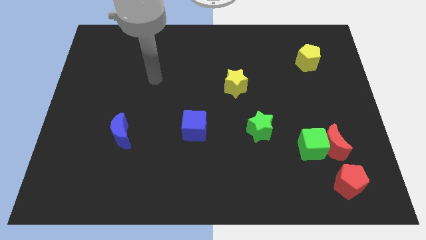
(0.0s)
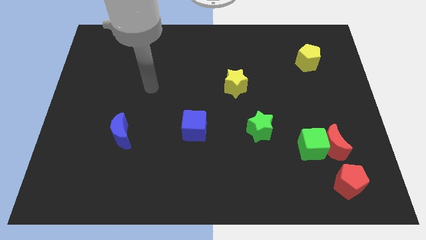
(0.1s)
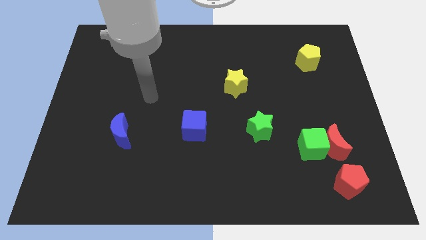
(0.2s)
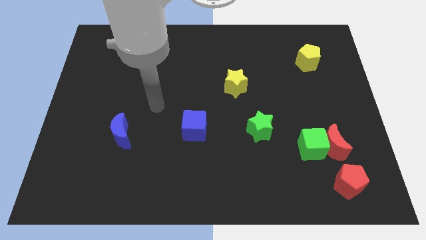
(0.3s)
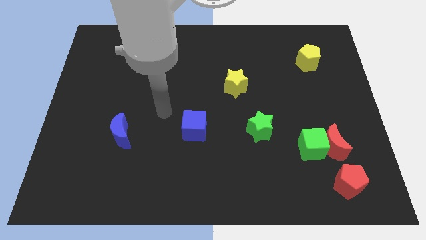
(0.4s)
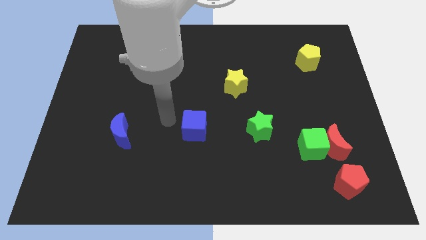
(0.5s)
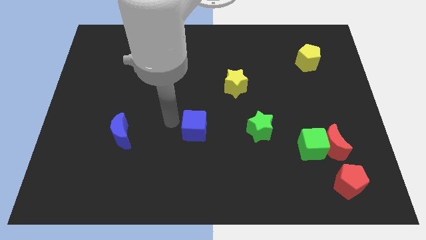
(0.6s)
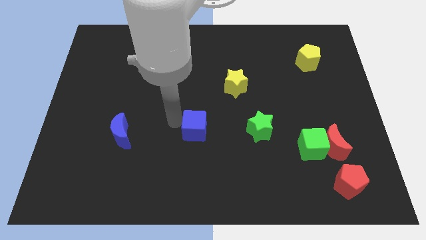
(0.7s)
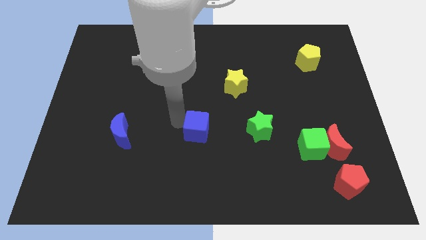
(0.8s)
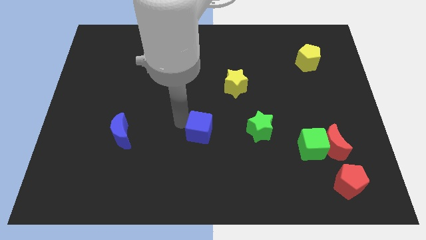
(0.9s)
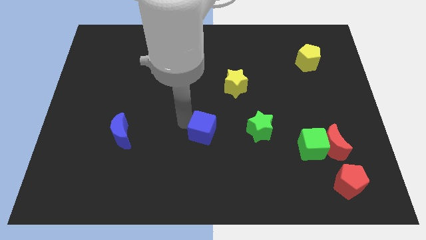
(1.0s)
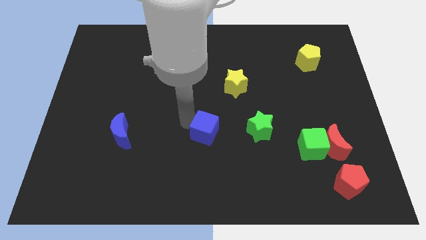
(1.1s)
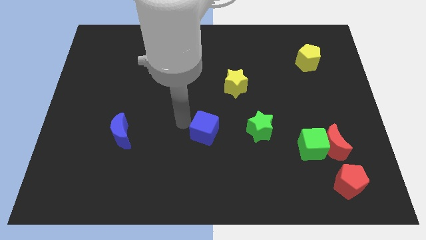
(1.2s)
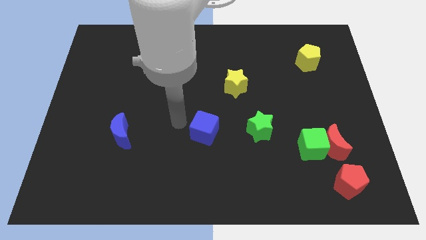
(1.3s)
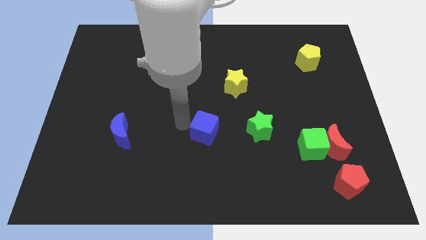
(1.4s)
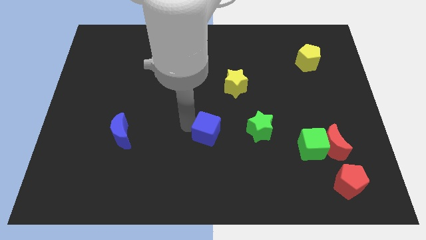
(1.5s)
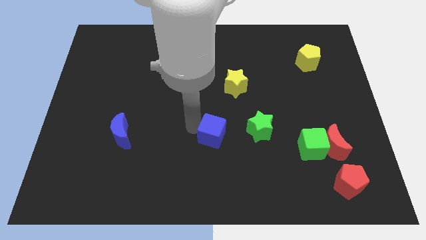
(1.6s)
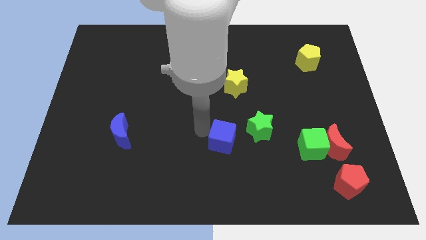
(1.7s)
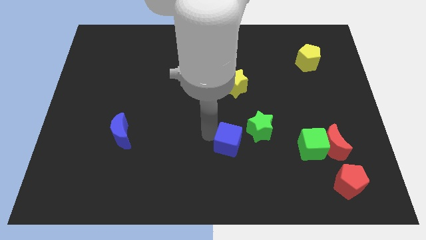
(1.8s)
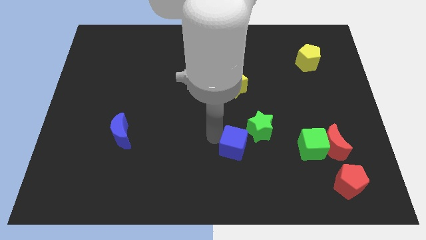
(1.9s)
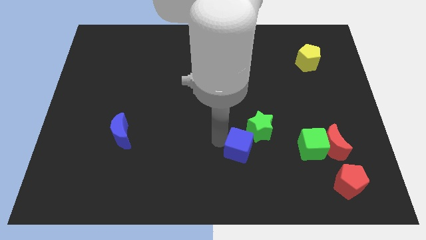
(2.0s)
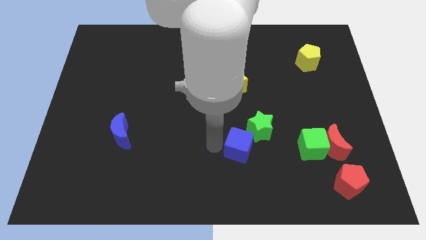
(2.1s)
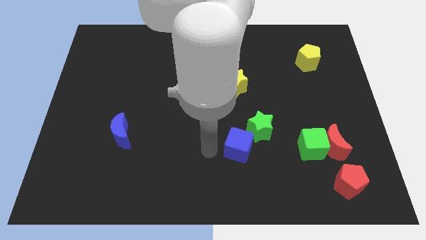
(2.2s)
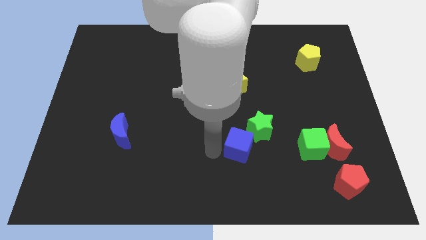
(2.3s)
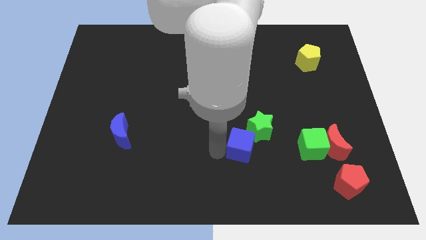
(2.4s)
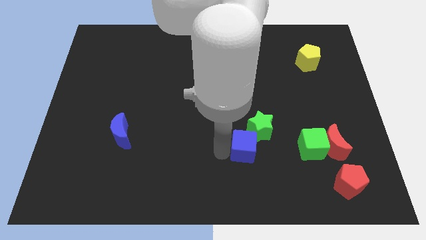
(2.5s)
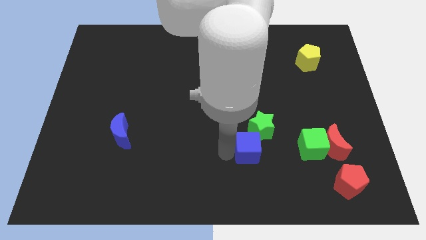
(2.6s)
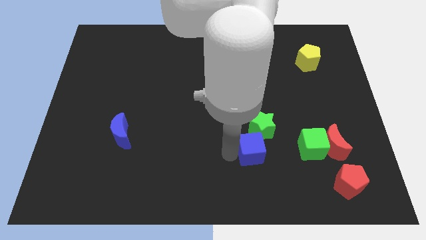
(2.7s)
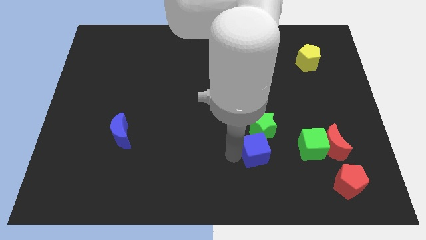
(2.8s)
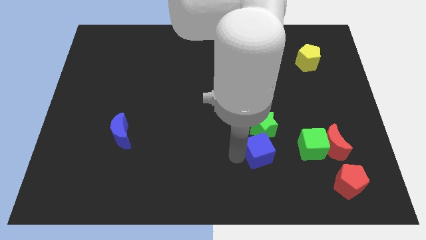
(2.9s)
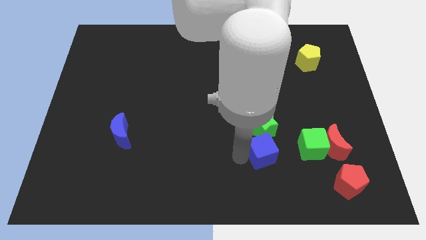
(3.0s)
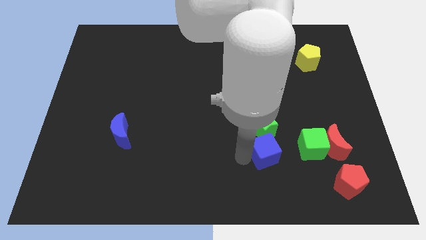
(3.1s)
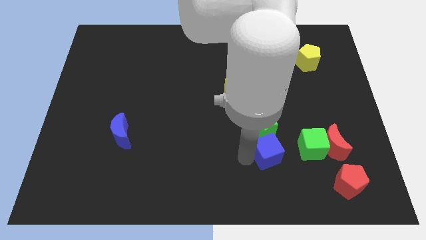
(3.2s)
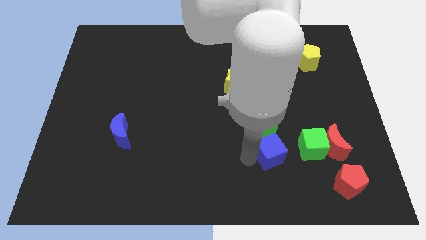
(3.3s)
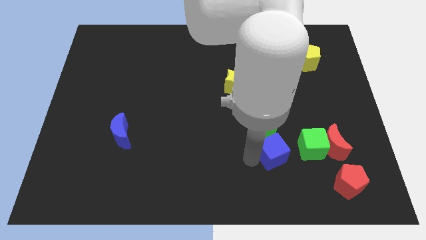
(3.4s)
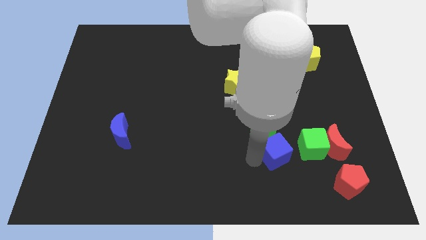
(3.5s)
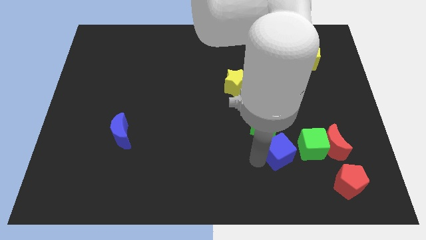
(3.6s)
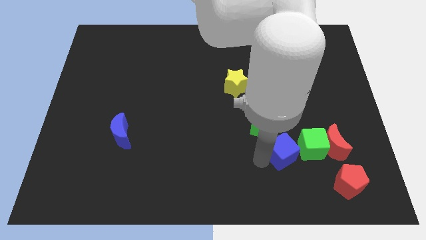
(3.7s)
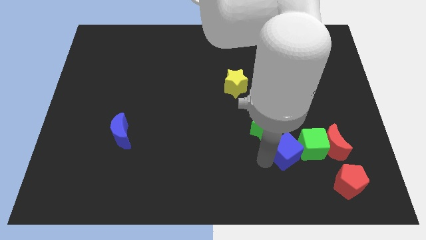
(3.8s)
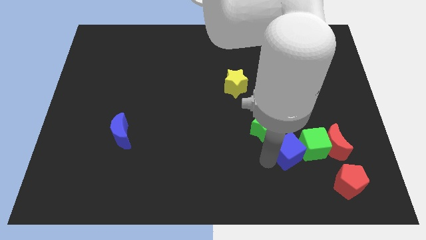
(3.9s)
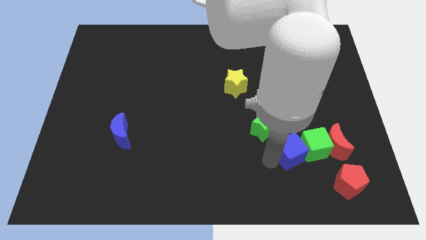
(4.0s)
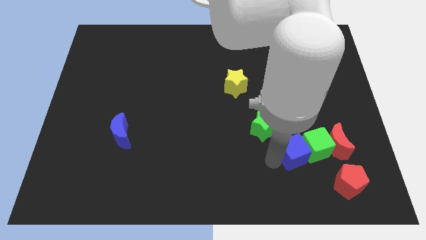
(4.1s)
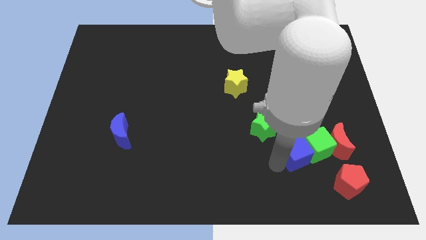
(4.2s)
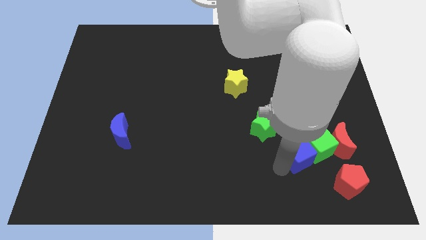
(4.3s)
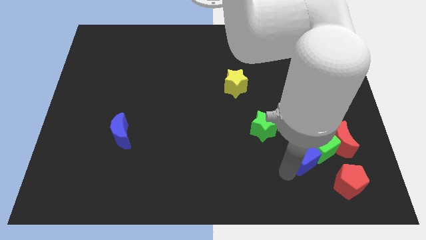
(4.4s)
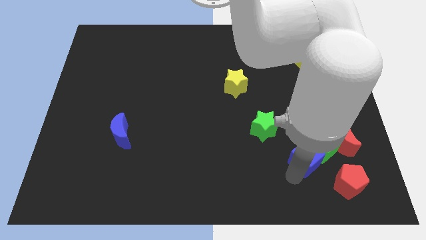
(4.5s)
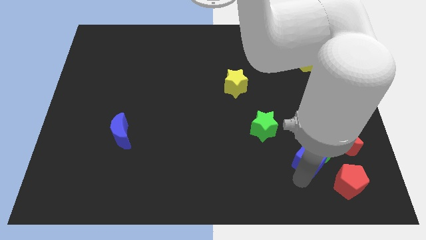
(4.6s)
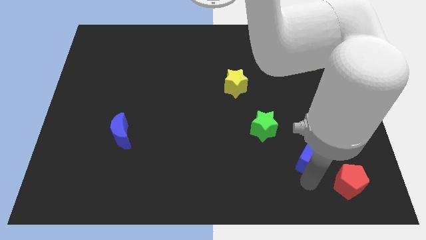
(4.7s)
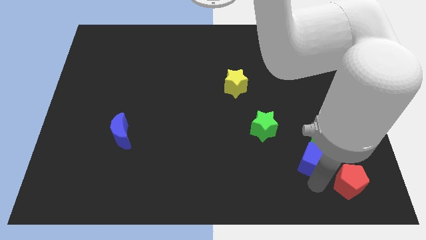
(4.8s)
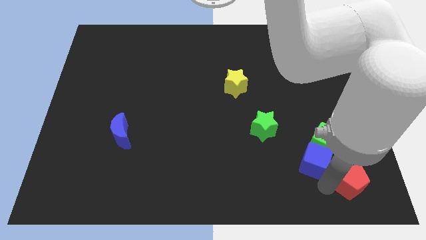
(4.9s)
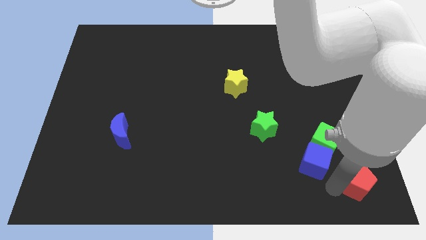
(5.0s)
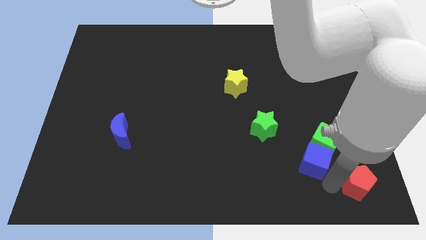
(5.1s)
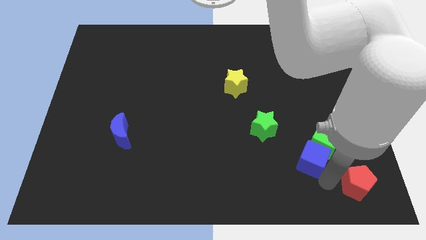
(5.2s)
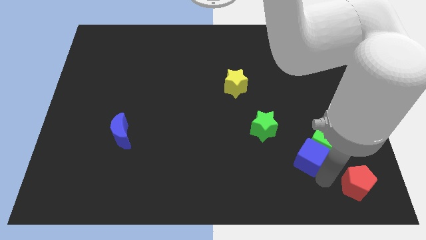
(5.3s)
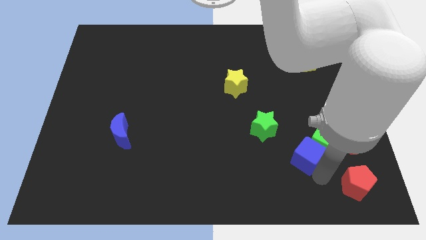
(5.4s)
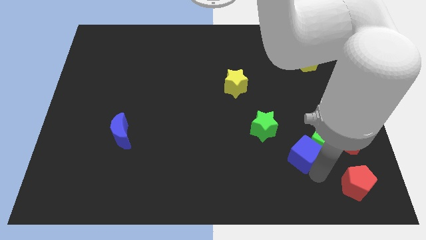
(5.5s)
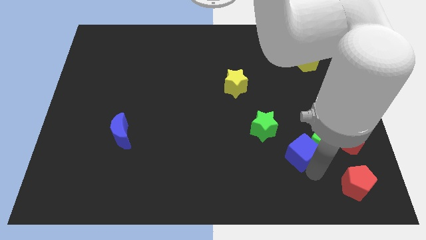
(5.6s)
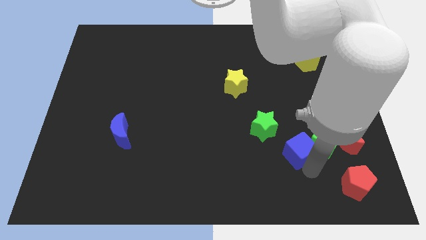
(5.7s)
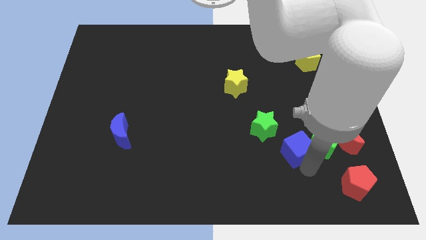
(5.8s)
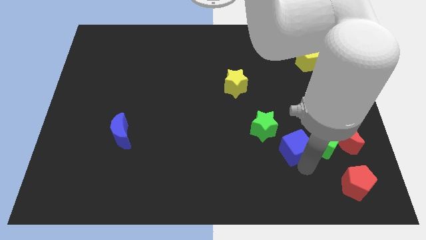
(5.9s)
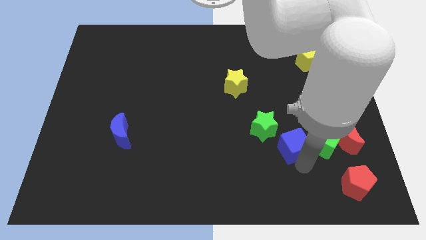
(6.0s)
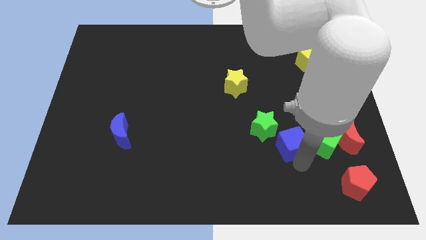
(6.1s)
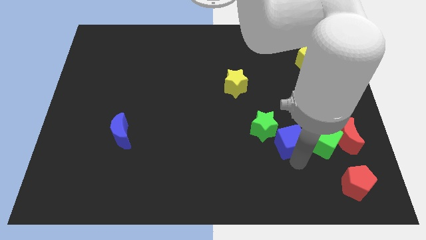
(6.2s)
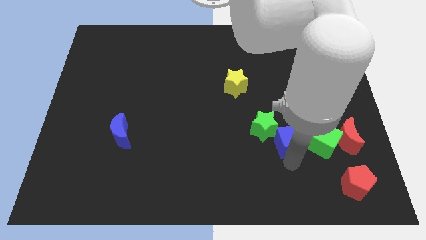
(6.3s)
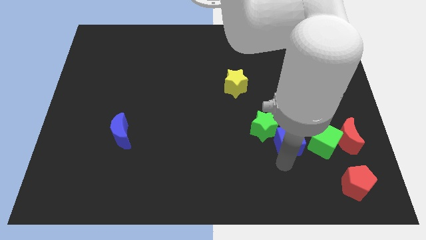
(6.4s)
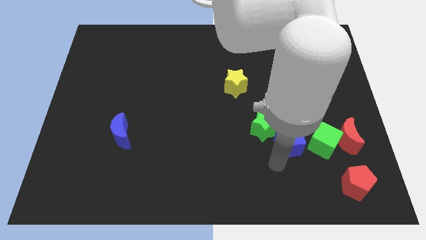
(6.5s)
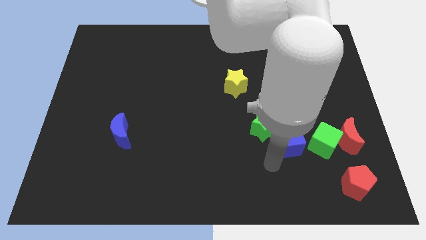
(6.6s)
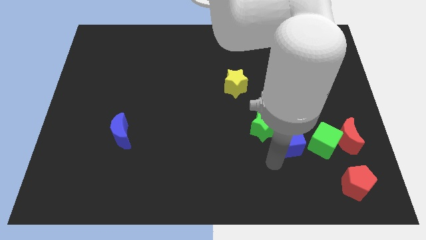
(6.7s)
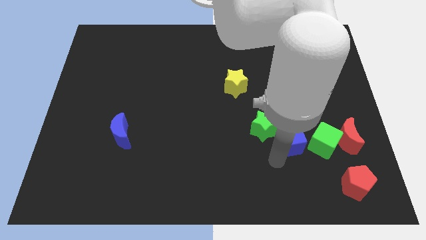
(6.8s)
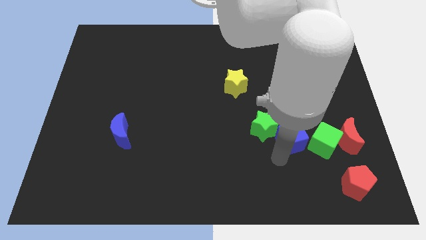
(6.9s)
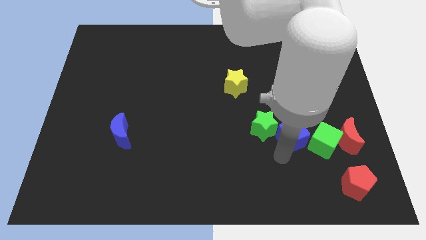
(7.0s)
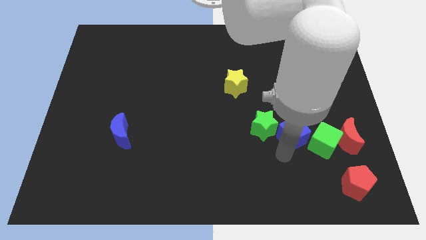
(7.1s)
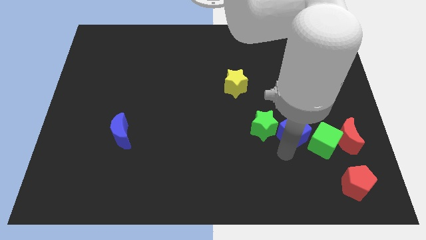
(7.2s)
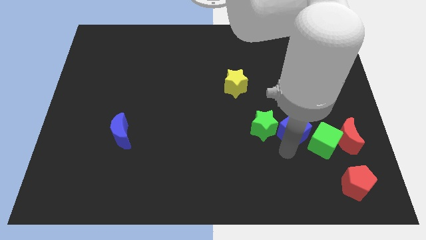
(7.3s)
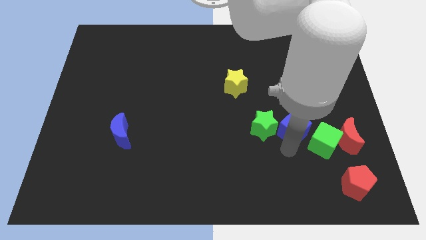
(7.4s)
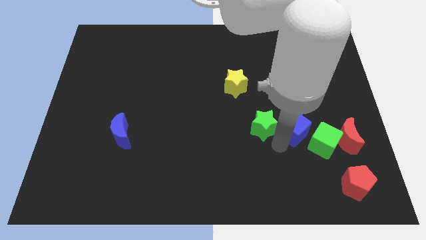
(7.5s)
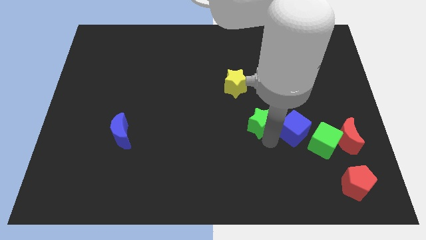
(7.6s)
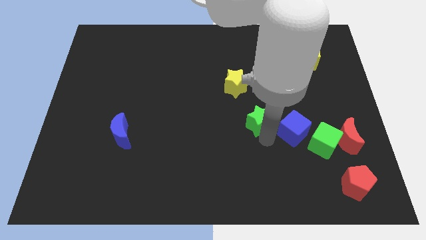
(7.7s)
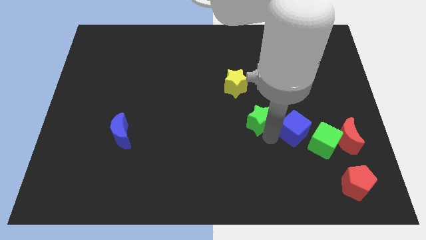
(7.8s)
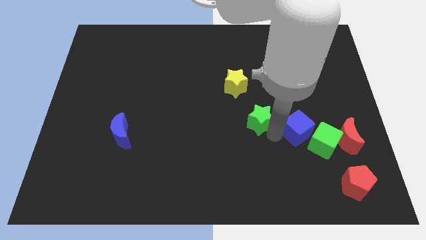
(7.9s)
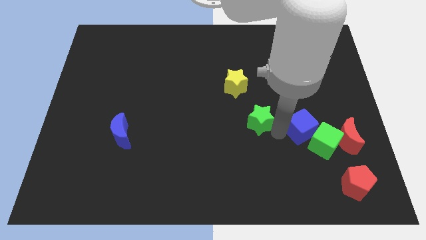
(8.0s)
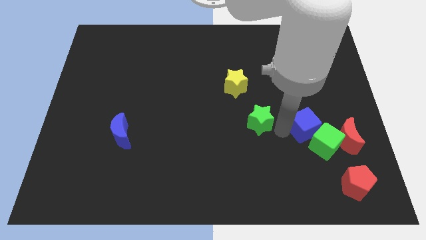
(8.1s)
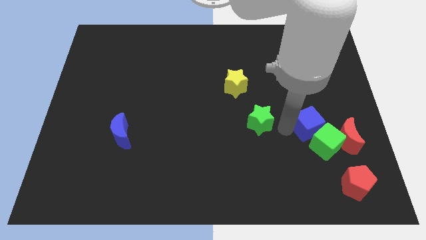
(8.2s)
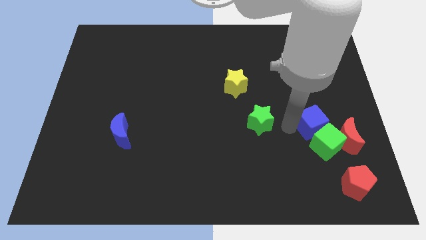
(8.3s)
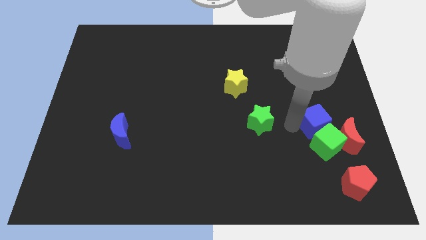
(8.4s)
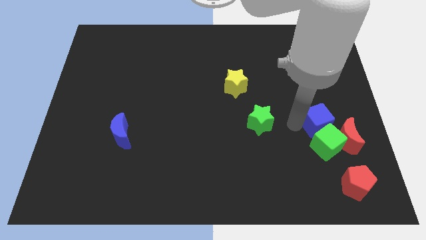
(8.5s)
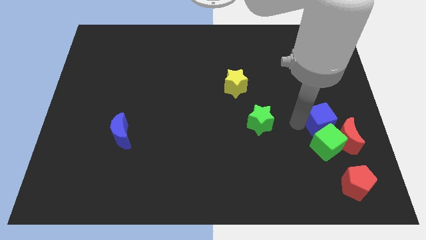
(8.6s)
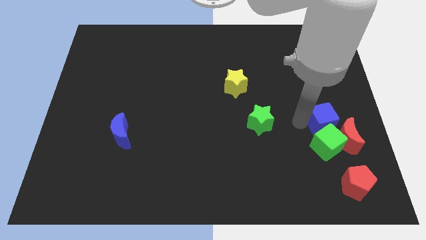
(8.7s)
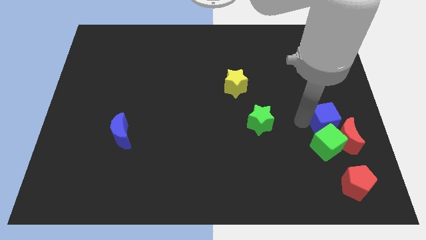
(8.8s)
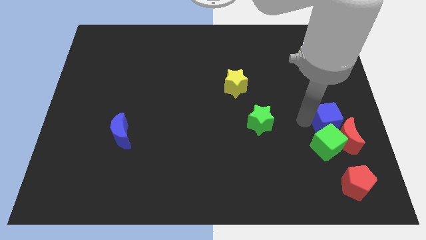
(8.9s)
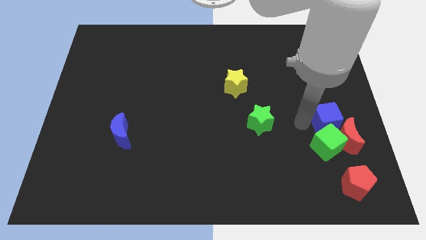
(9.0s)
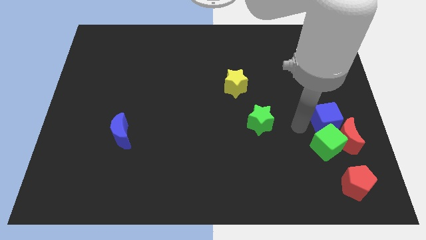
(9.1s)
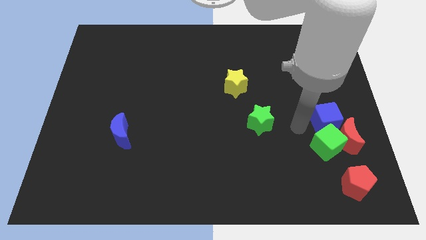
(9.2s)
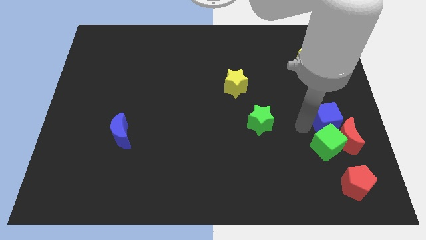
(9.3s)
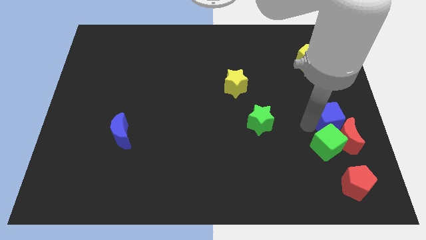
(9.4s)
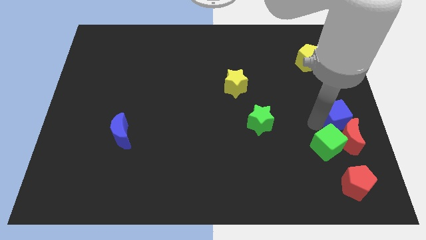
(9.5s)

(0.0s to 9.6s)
put the blue cube to the right side of the board
